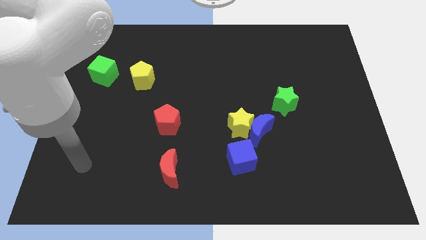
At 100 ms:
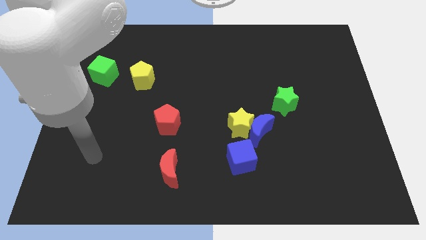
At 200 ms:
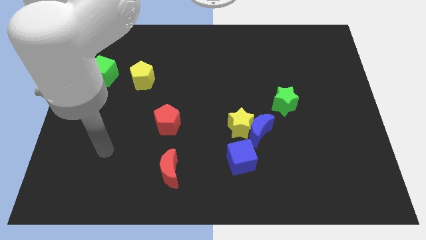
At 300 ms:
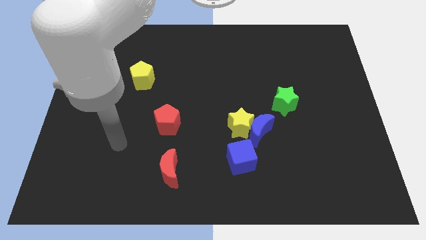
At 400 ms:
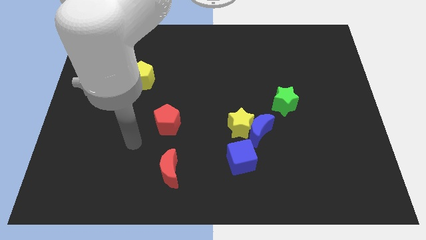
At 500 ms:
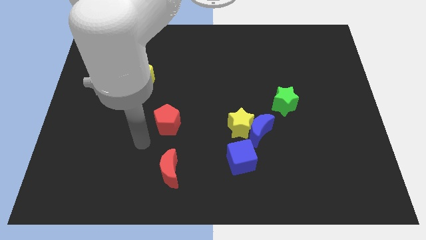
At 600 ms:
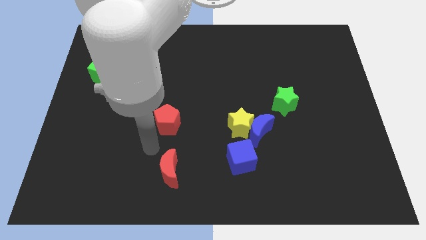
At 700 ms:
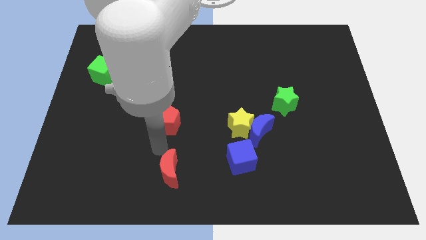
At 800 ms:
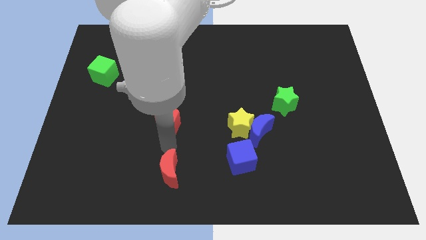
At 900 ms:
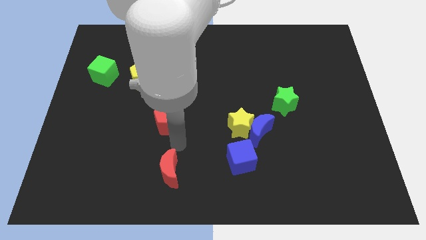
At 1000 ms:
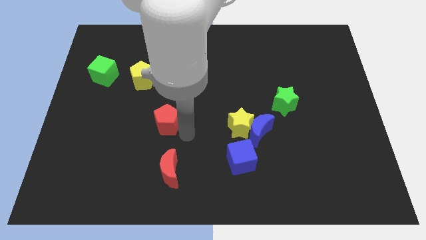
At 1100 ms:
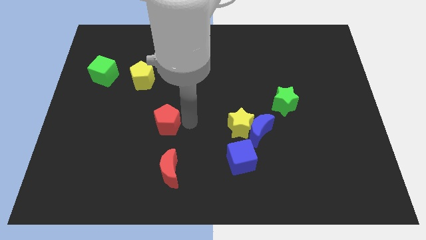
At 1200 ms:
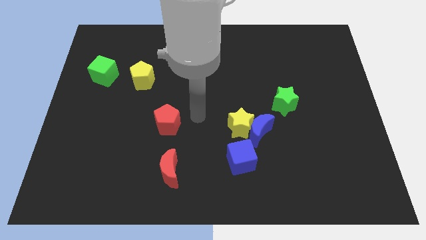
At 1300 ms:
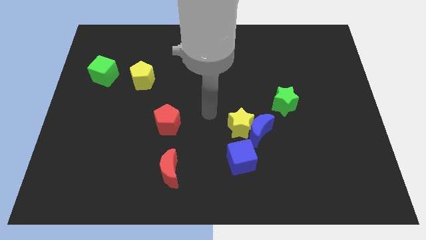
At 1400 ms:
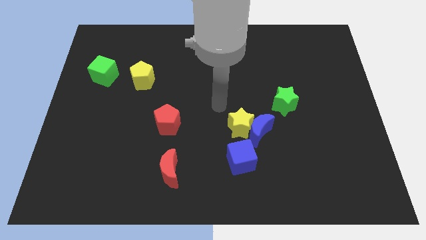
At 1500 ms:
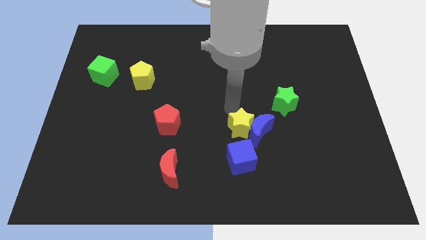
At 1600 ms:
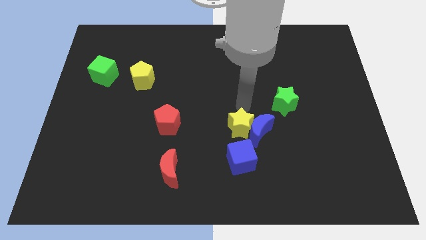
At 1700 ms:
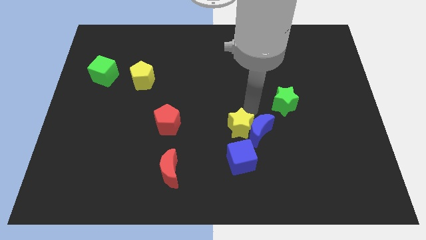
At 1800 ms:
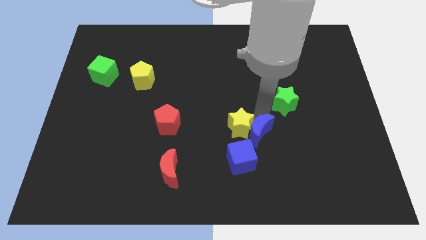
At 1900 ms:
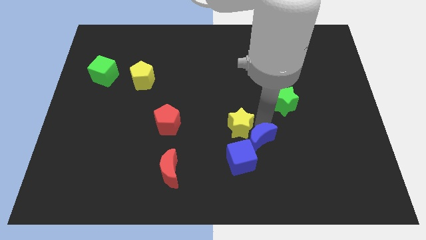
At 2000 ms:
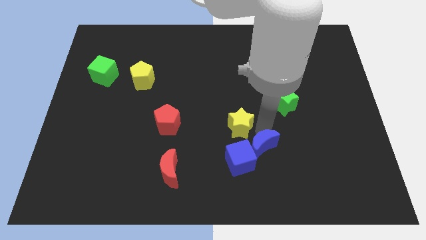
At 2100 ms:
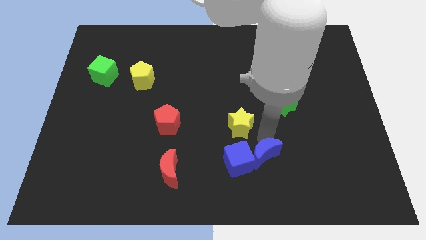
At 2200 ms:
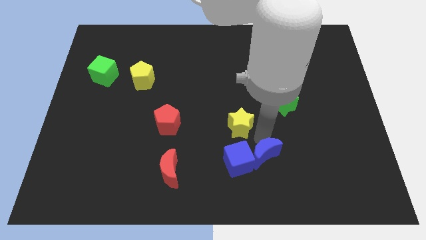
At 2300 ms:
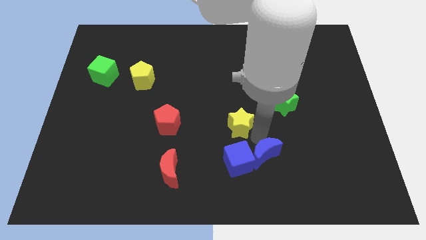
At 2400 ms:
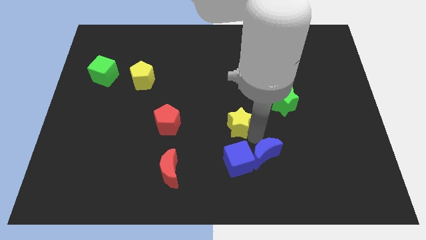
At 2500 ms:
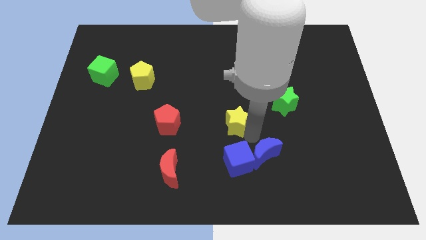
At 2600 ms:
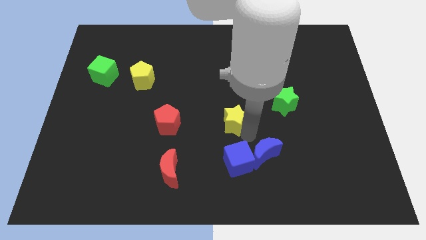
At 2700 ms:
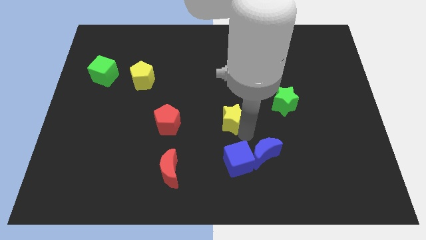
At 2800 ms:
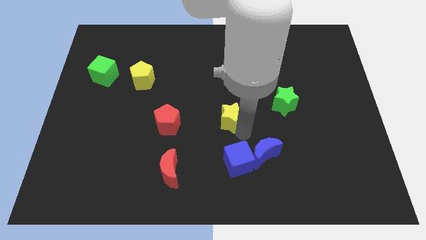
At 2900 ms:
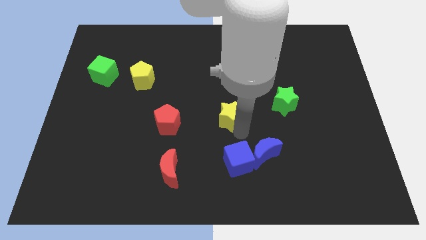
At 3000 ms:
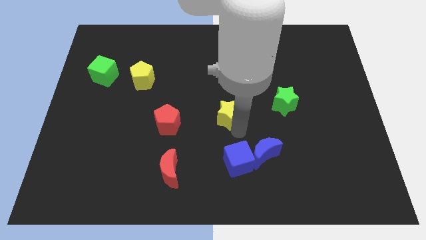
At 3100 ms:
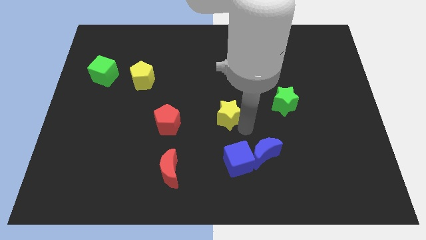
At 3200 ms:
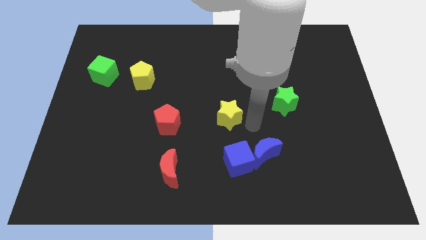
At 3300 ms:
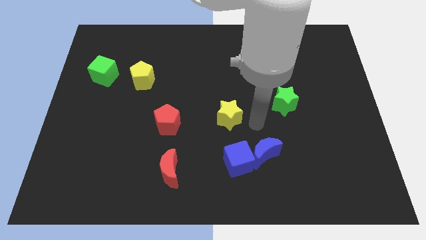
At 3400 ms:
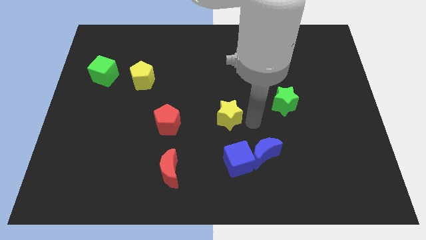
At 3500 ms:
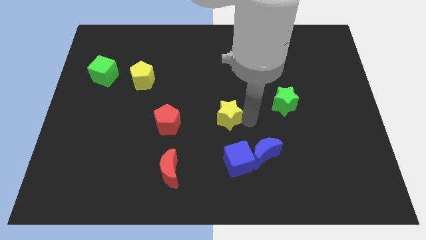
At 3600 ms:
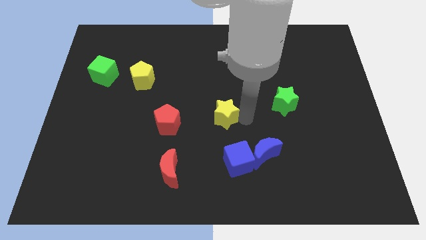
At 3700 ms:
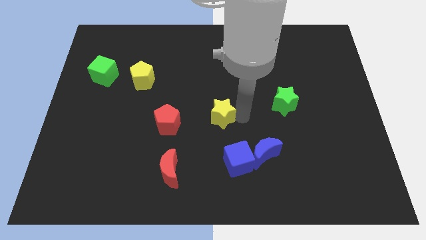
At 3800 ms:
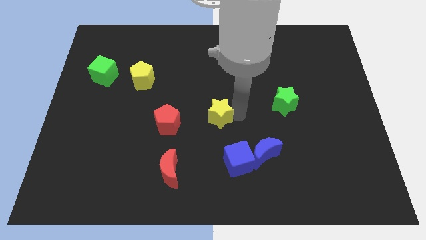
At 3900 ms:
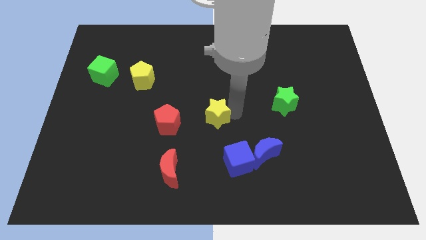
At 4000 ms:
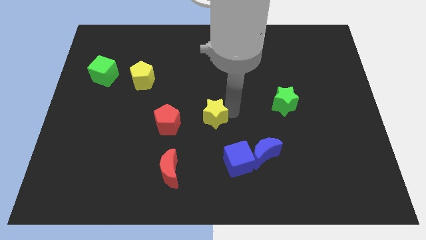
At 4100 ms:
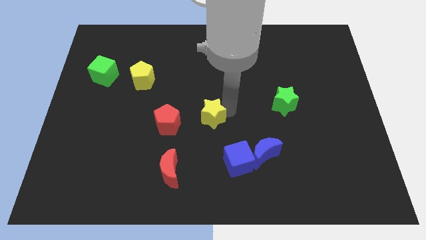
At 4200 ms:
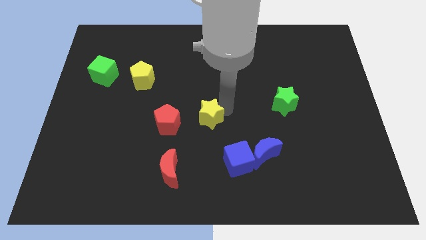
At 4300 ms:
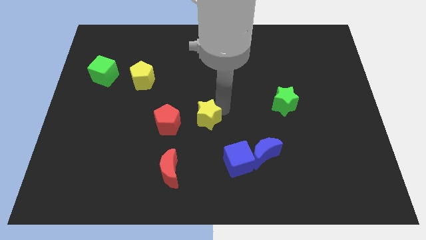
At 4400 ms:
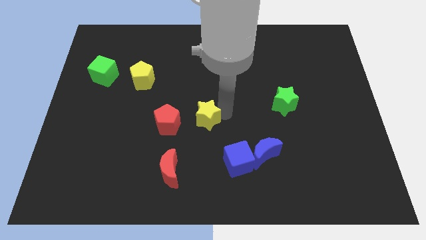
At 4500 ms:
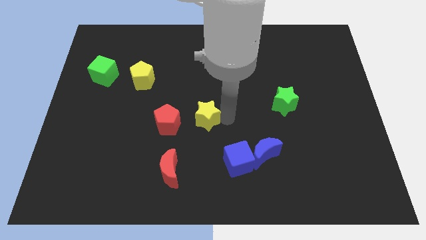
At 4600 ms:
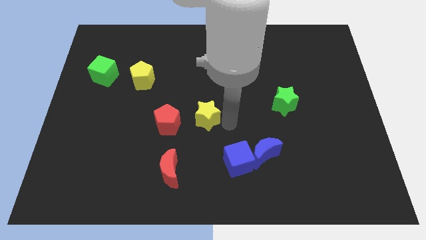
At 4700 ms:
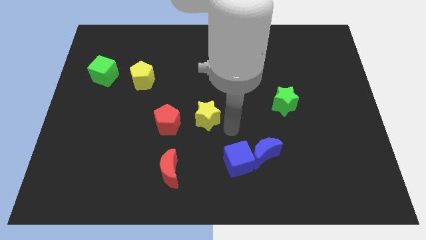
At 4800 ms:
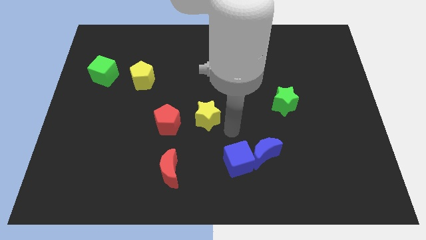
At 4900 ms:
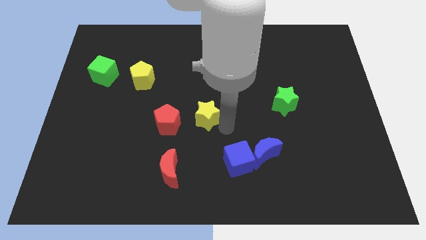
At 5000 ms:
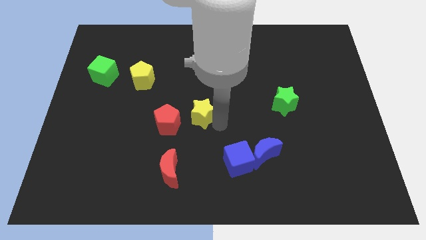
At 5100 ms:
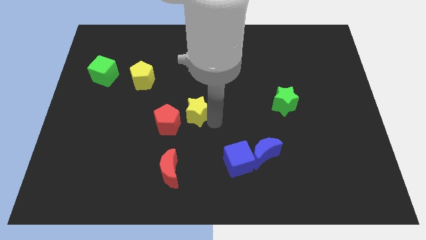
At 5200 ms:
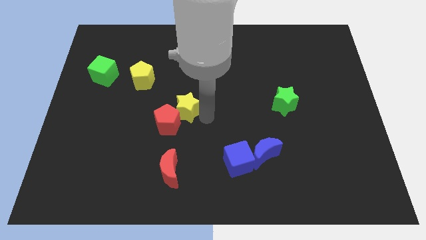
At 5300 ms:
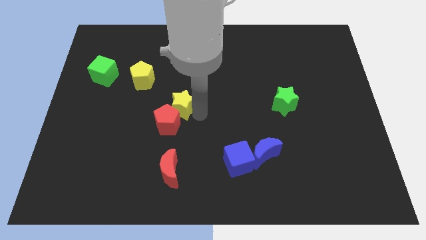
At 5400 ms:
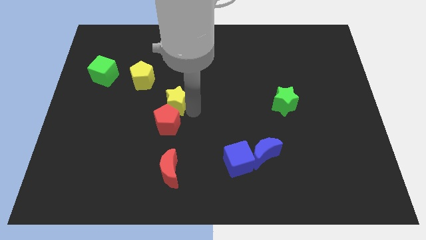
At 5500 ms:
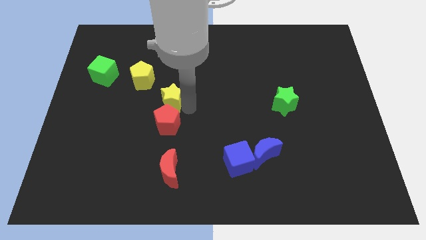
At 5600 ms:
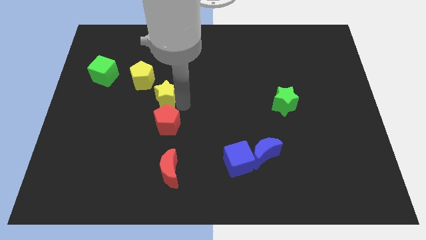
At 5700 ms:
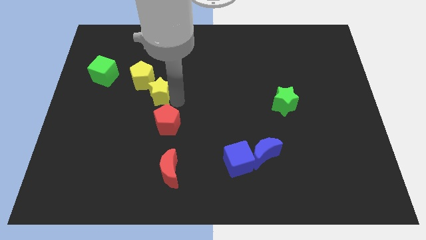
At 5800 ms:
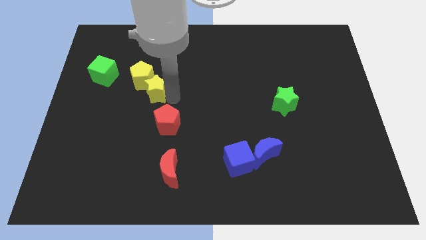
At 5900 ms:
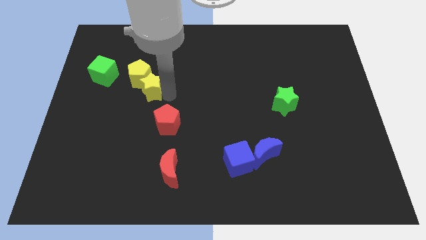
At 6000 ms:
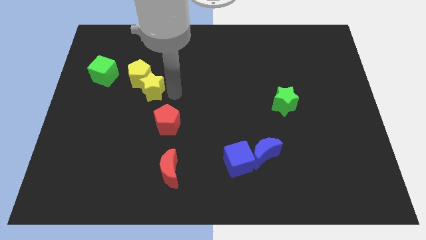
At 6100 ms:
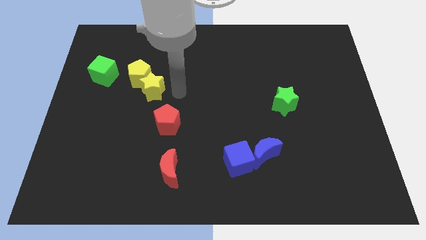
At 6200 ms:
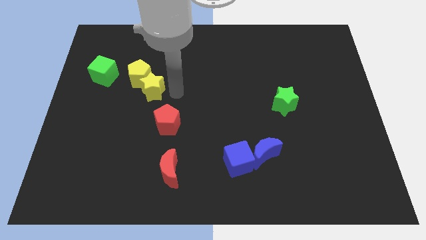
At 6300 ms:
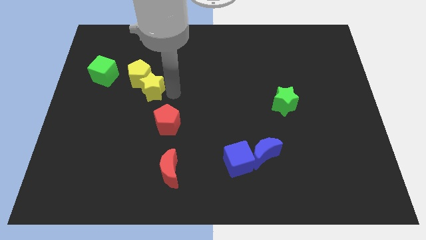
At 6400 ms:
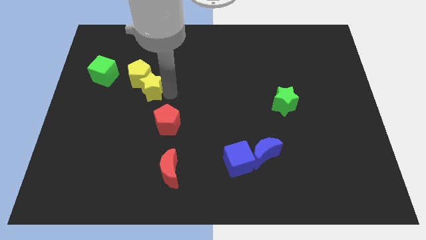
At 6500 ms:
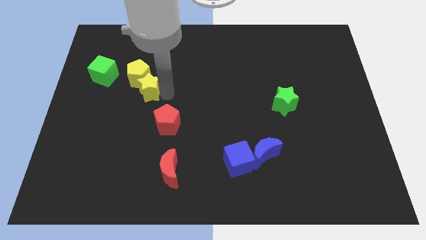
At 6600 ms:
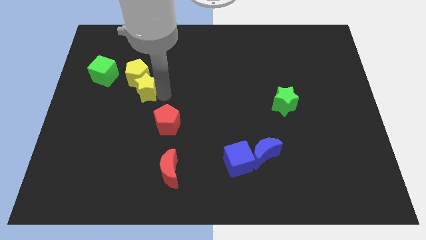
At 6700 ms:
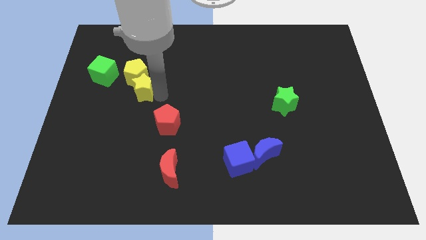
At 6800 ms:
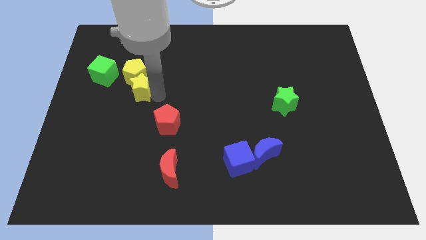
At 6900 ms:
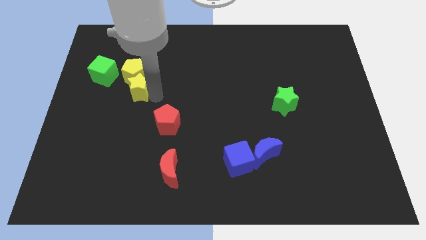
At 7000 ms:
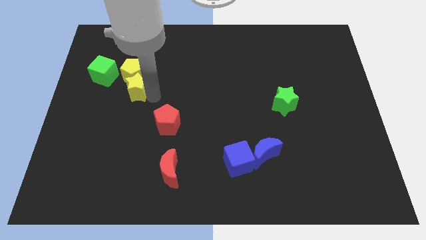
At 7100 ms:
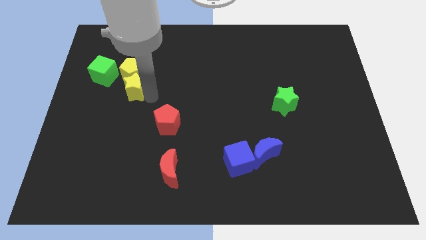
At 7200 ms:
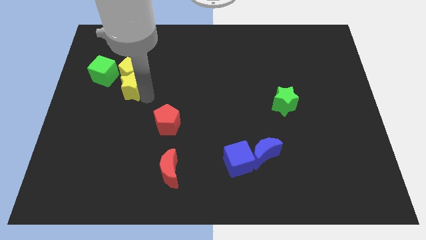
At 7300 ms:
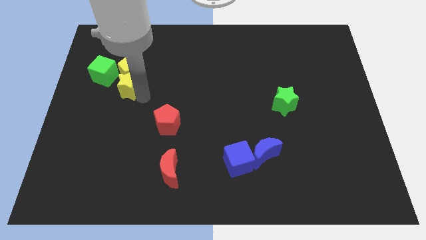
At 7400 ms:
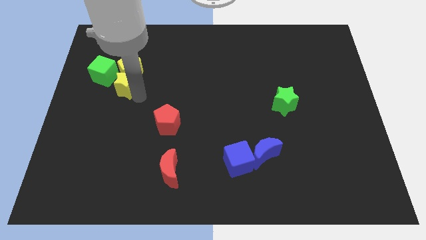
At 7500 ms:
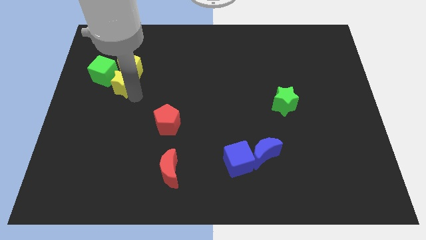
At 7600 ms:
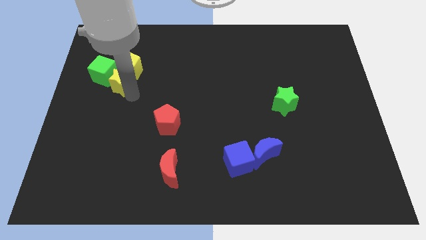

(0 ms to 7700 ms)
move the yellow star next to the green cube
